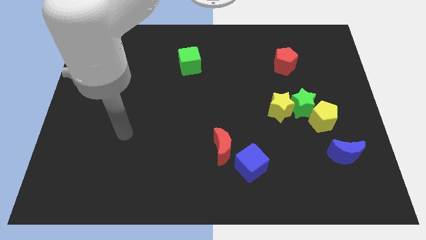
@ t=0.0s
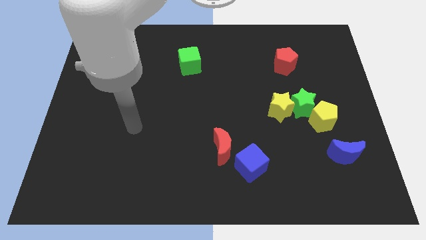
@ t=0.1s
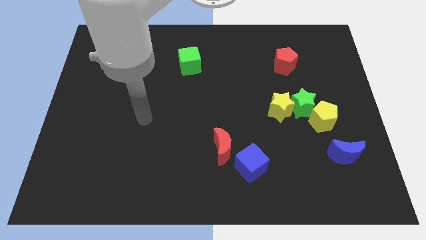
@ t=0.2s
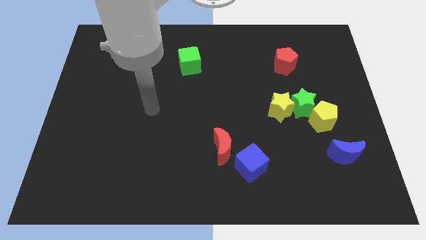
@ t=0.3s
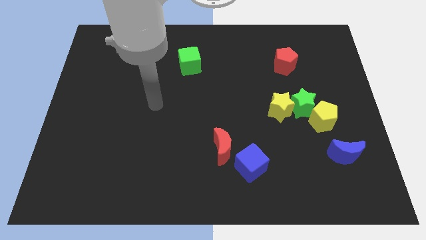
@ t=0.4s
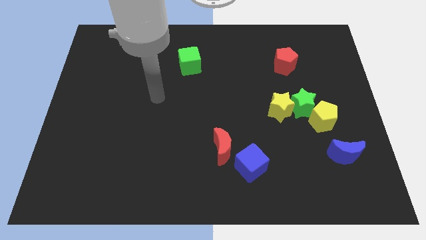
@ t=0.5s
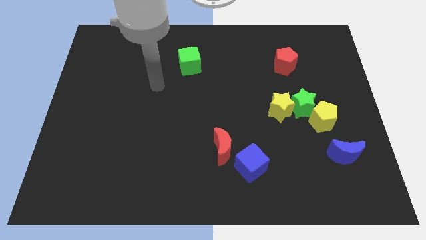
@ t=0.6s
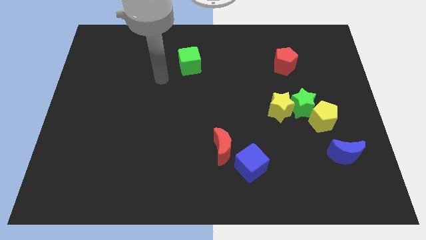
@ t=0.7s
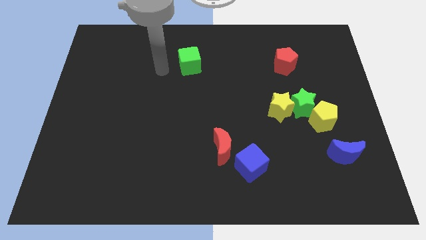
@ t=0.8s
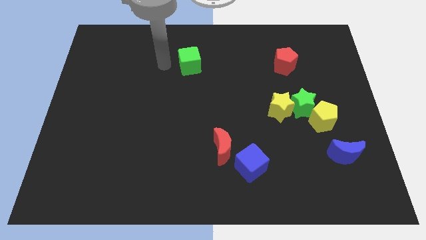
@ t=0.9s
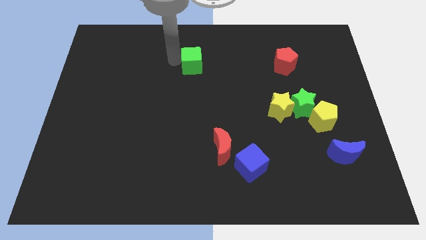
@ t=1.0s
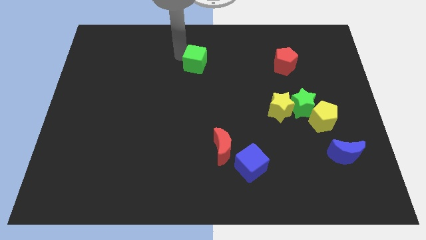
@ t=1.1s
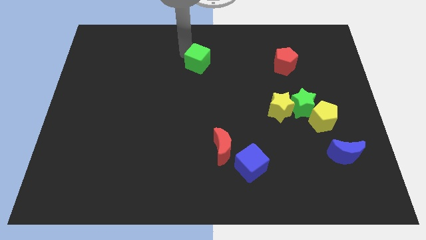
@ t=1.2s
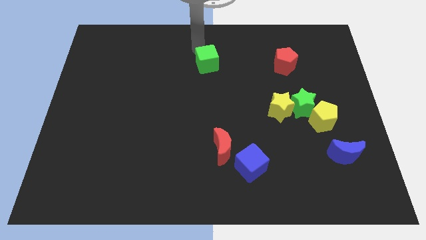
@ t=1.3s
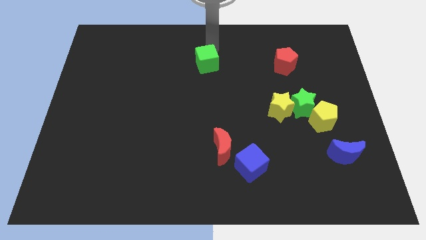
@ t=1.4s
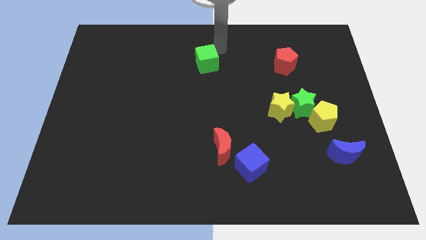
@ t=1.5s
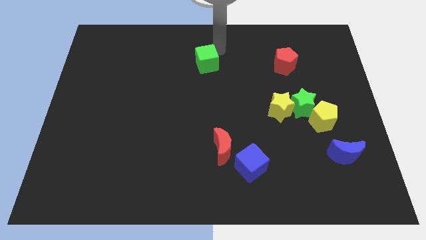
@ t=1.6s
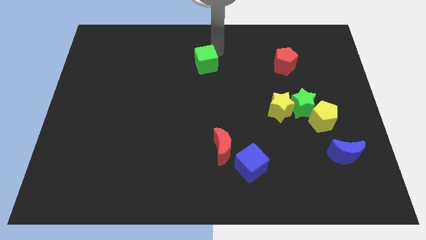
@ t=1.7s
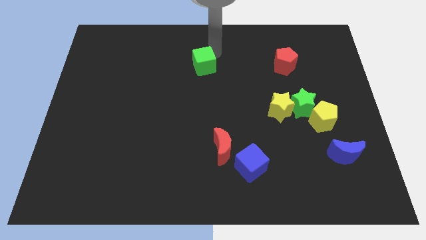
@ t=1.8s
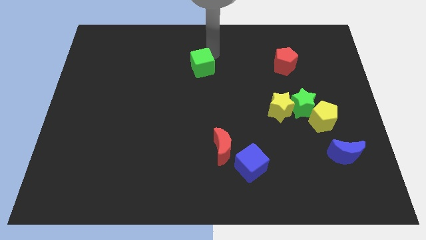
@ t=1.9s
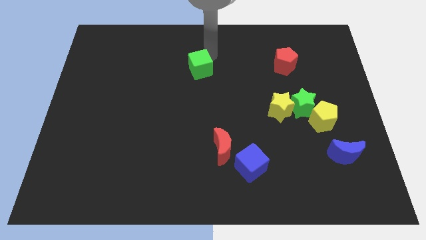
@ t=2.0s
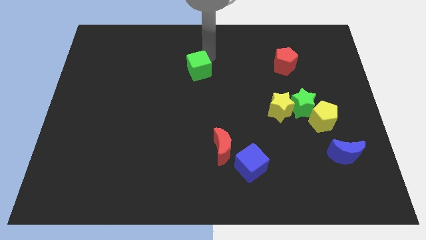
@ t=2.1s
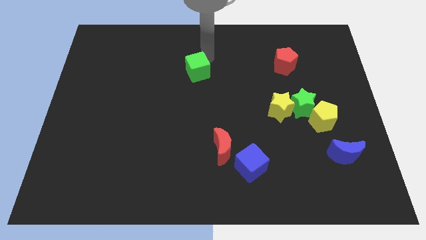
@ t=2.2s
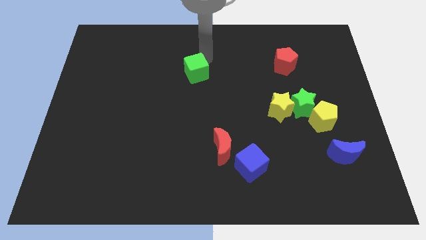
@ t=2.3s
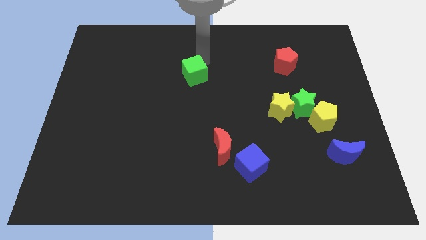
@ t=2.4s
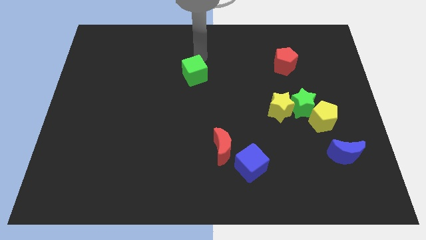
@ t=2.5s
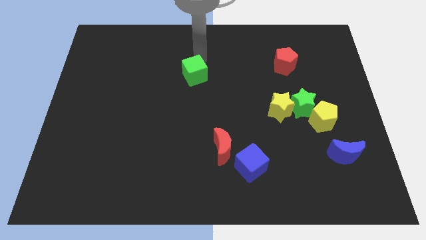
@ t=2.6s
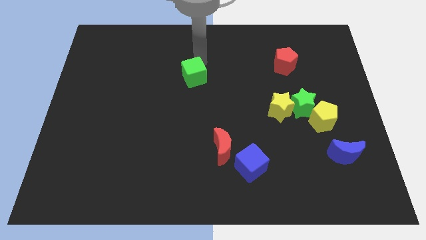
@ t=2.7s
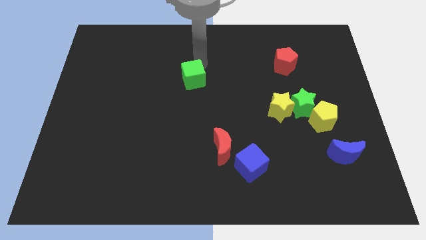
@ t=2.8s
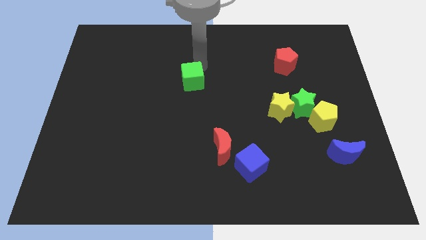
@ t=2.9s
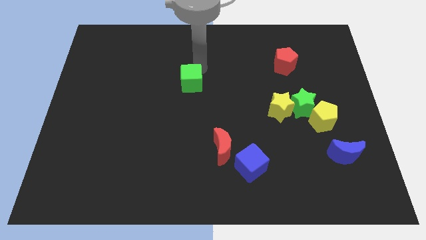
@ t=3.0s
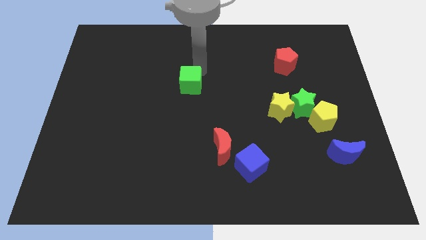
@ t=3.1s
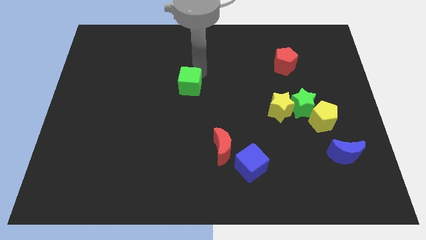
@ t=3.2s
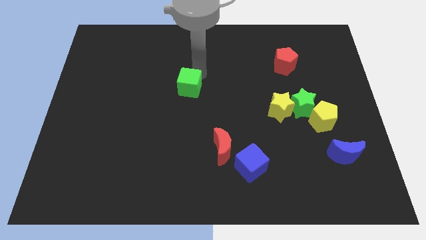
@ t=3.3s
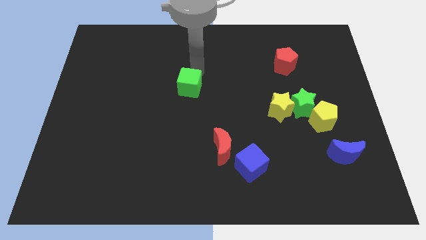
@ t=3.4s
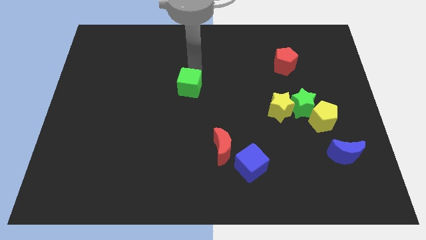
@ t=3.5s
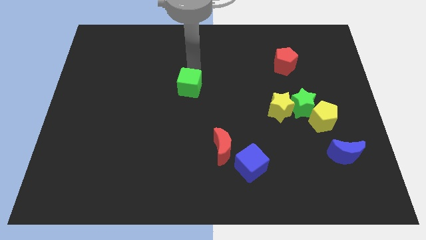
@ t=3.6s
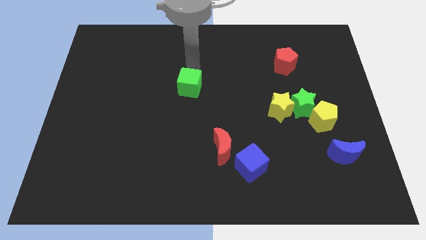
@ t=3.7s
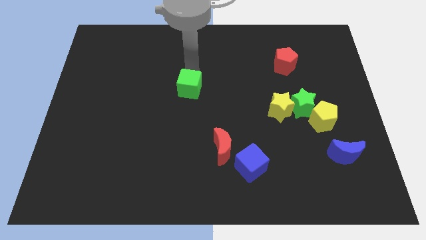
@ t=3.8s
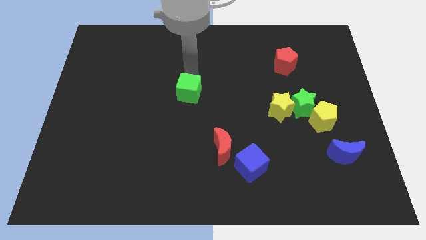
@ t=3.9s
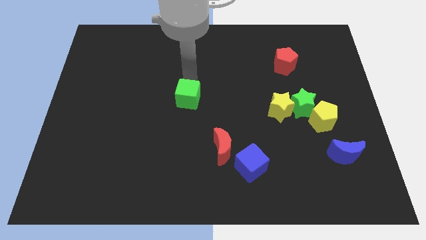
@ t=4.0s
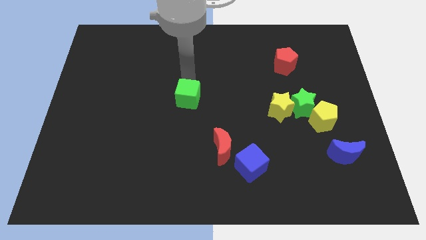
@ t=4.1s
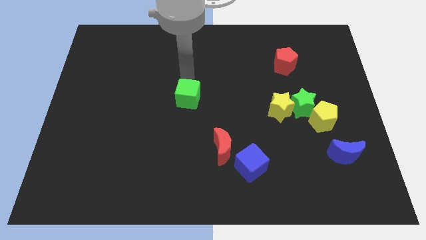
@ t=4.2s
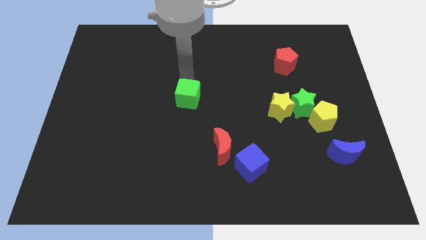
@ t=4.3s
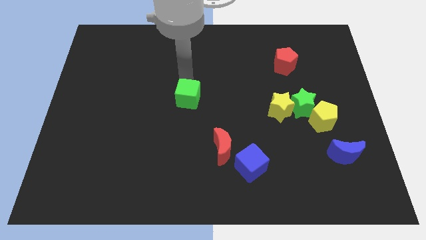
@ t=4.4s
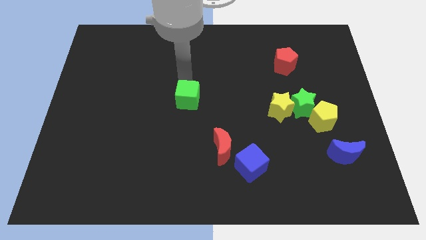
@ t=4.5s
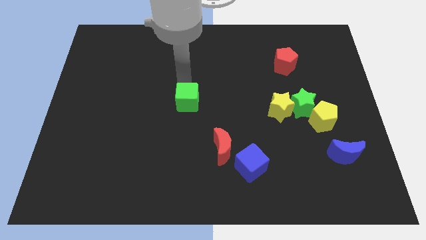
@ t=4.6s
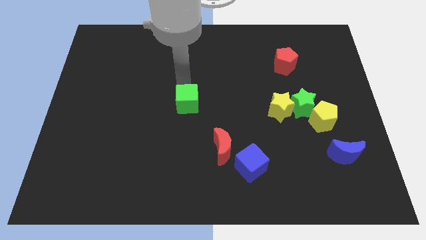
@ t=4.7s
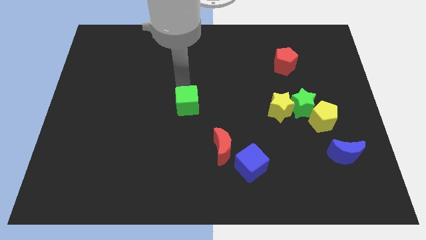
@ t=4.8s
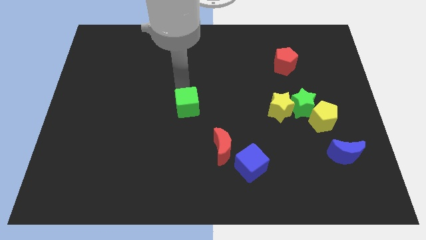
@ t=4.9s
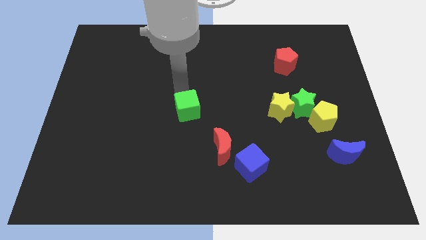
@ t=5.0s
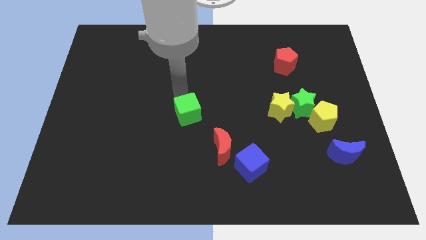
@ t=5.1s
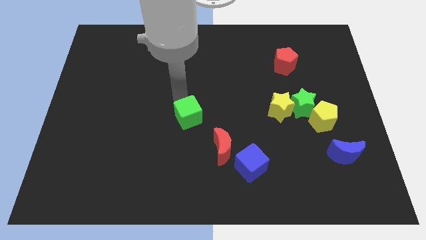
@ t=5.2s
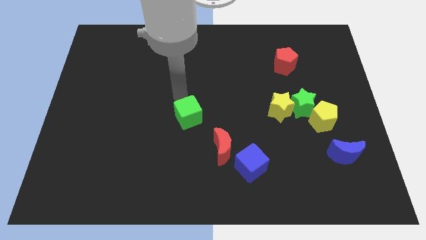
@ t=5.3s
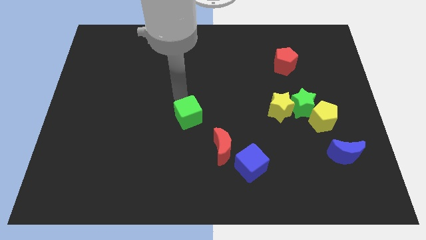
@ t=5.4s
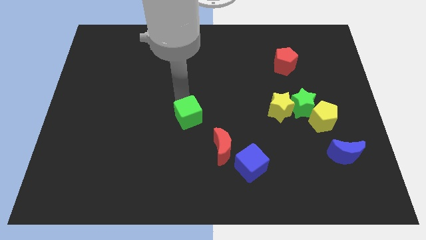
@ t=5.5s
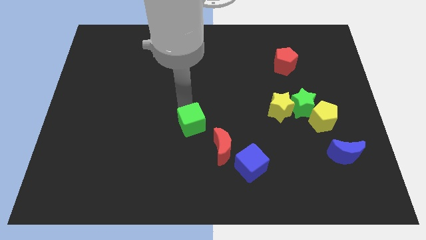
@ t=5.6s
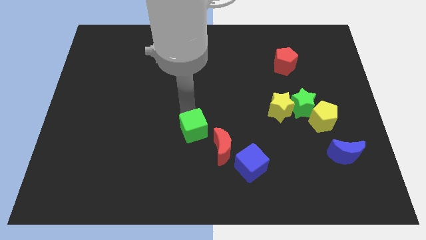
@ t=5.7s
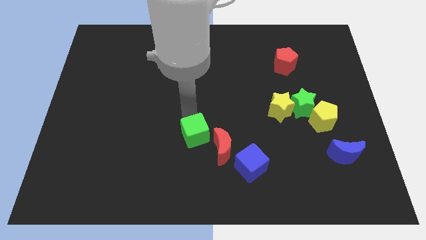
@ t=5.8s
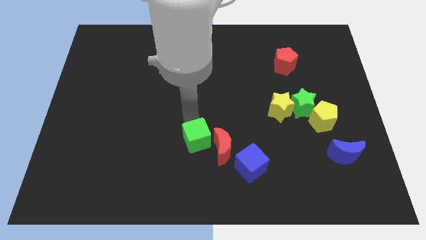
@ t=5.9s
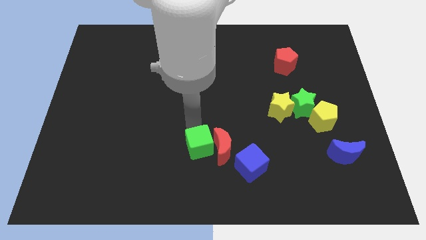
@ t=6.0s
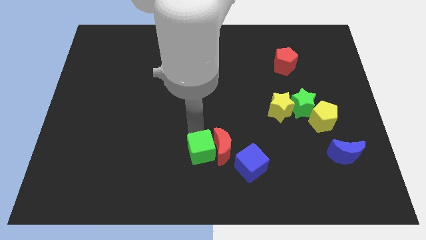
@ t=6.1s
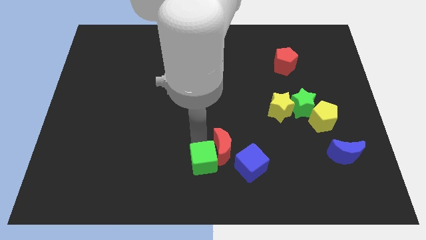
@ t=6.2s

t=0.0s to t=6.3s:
move the green cube to the bottom side
